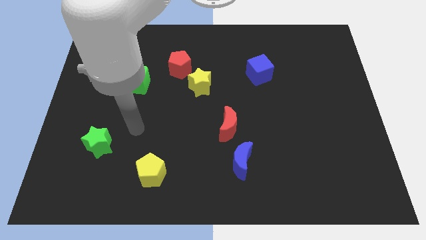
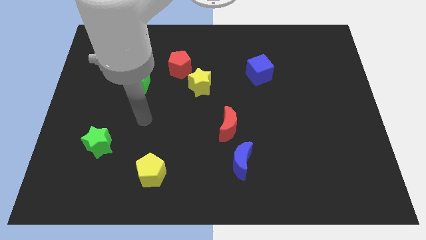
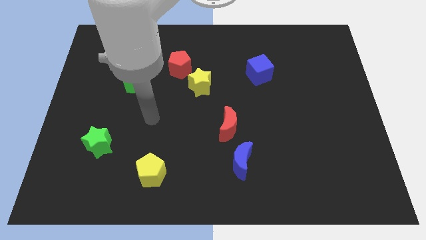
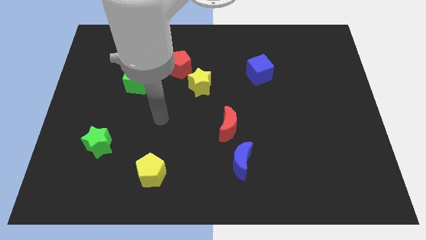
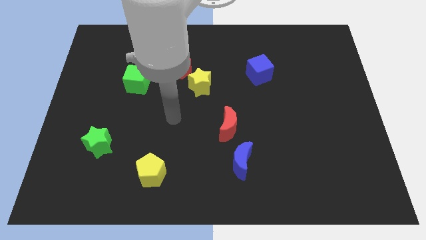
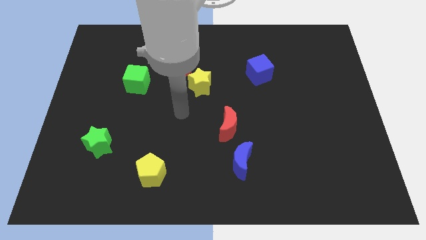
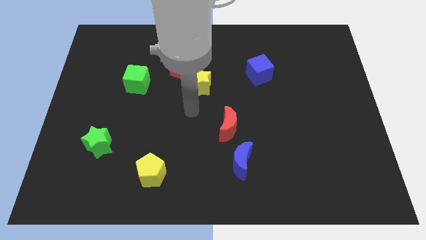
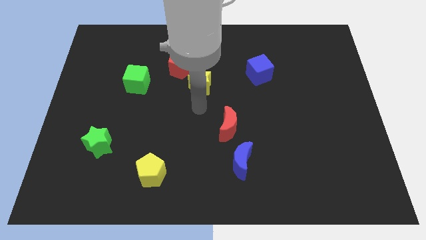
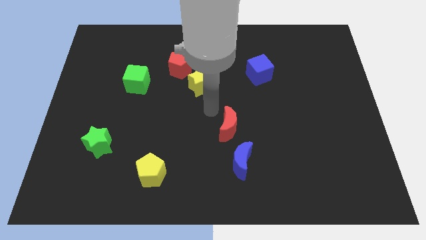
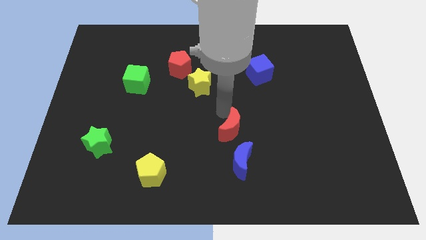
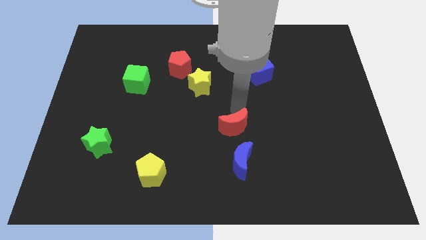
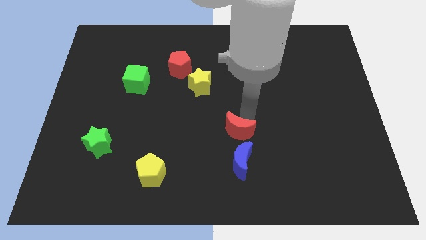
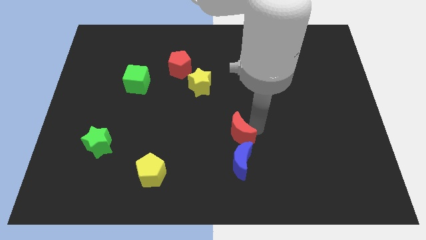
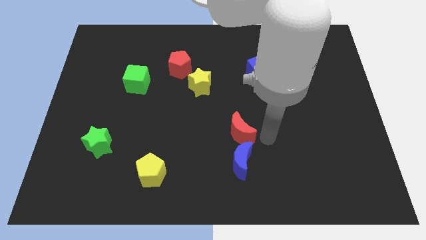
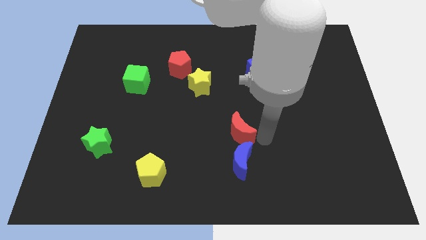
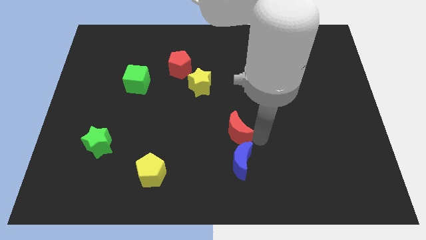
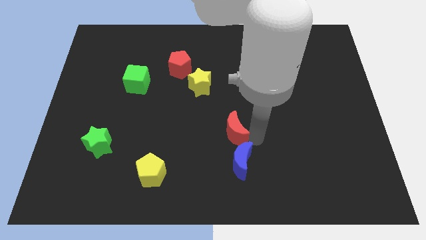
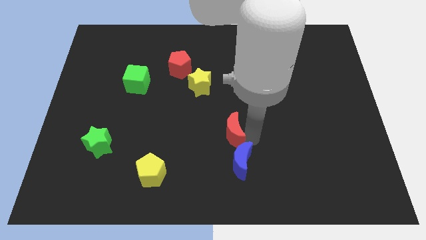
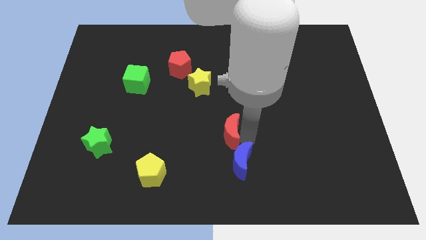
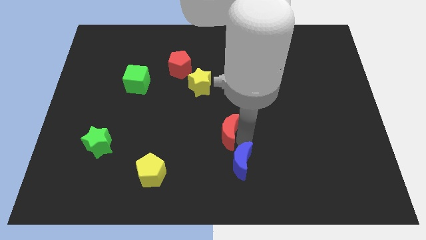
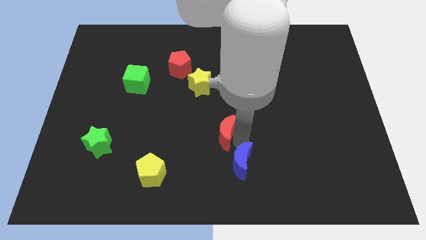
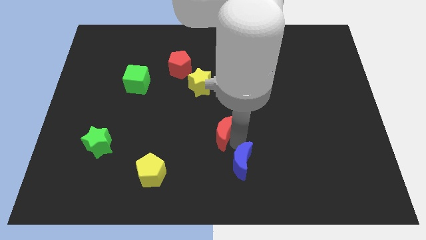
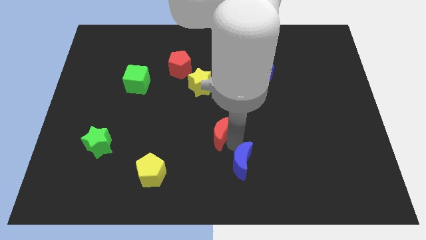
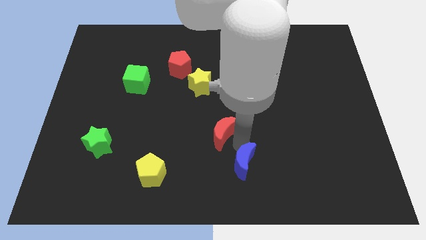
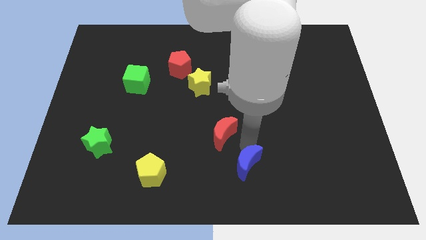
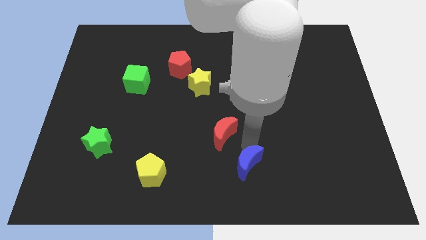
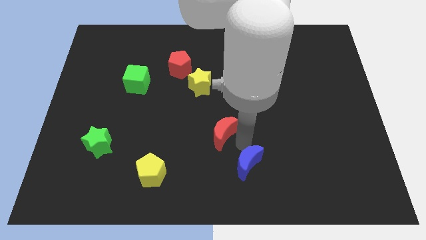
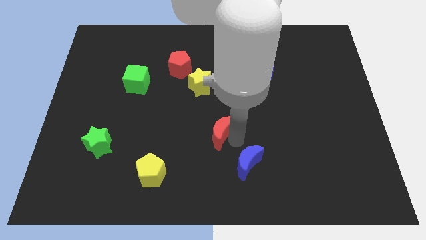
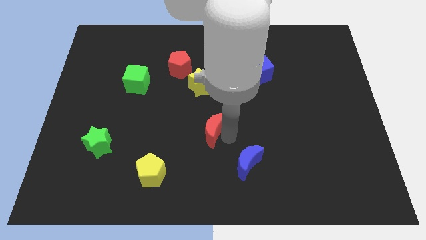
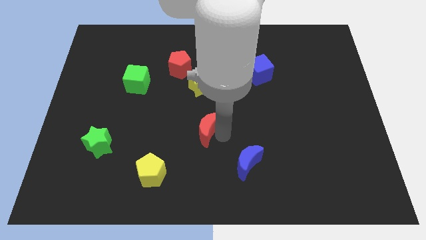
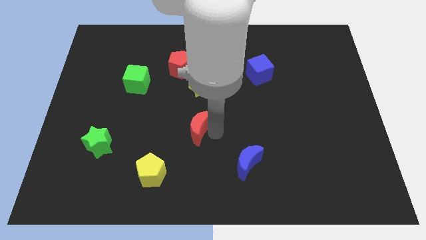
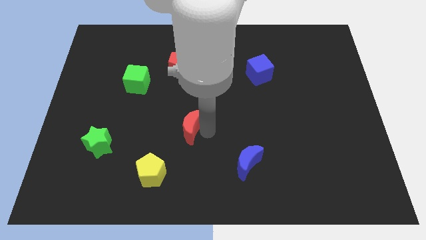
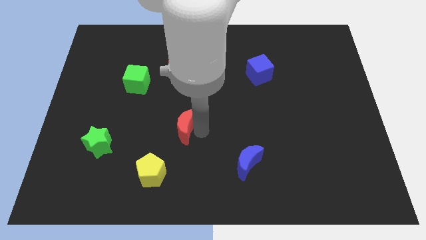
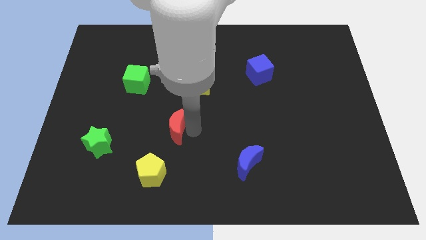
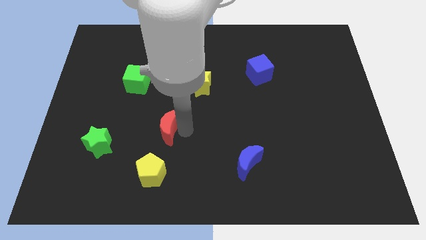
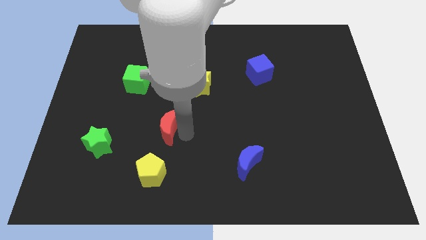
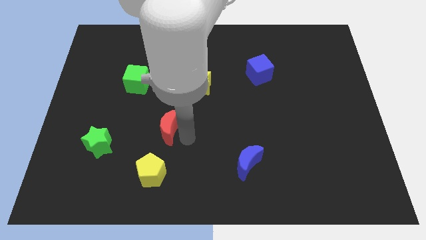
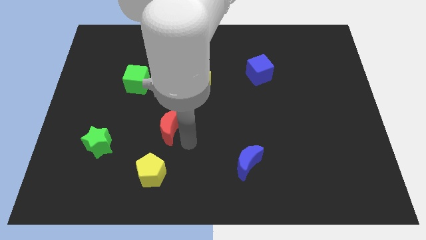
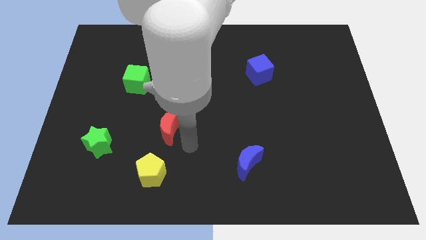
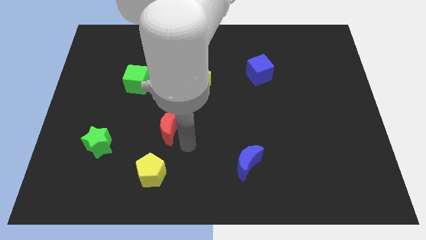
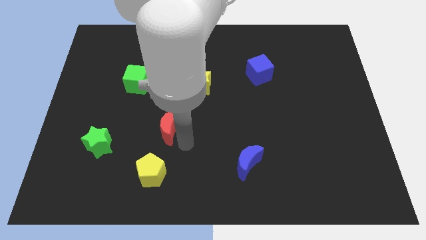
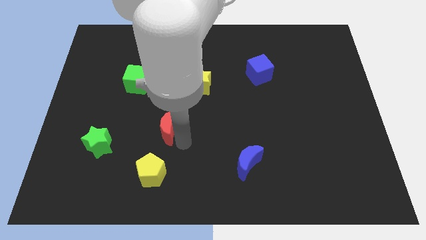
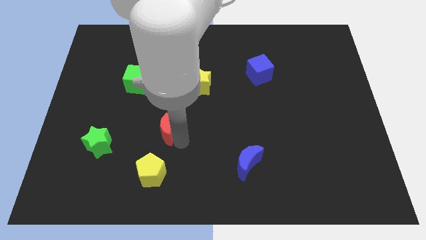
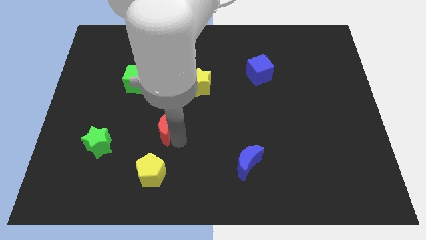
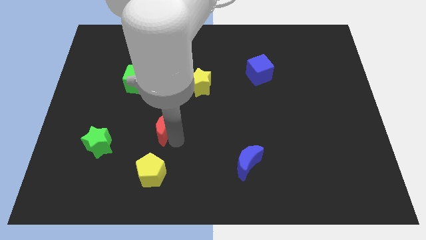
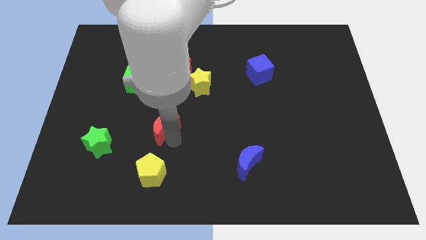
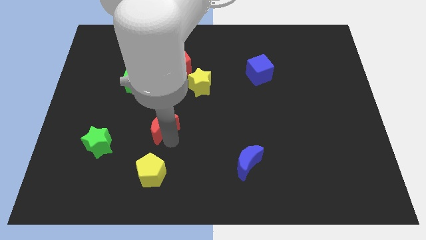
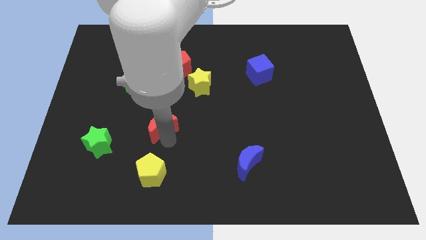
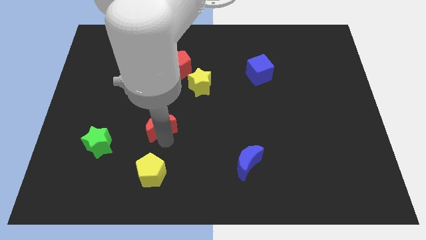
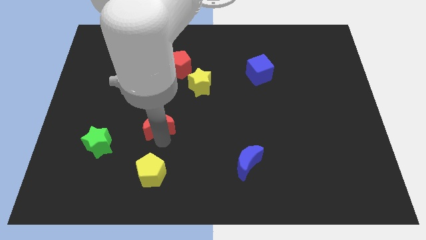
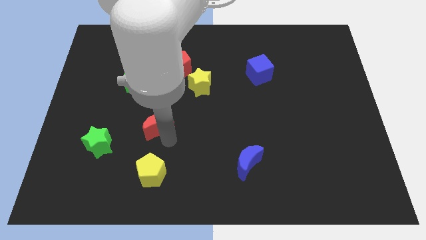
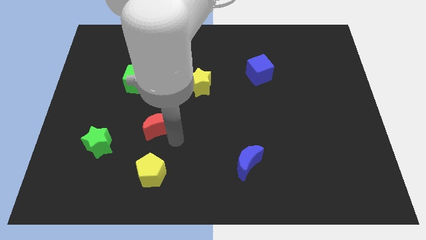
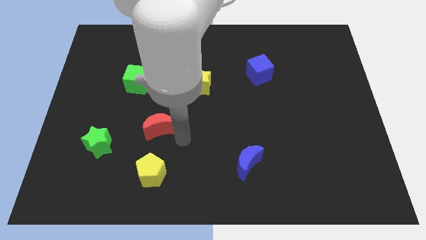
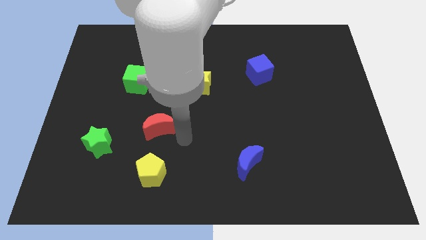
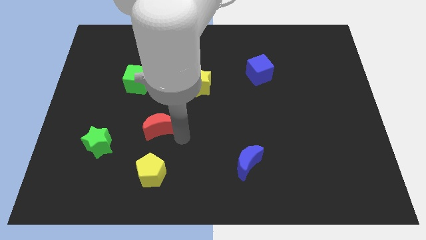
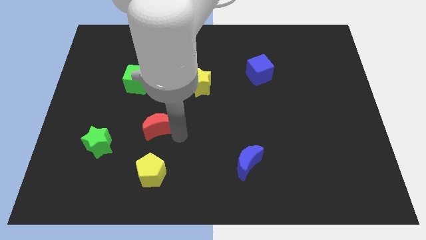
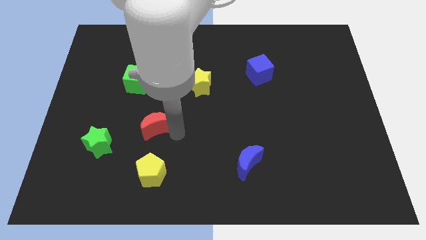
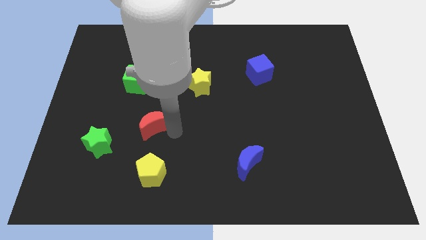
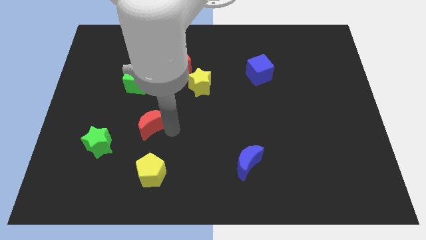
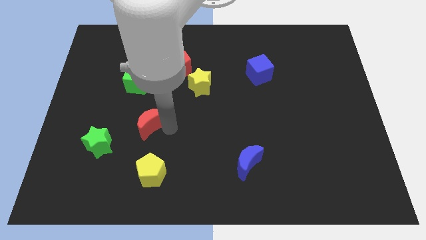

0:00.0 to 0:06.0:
push the red moon below the green cube

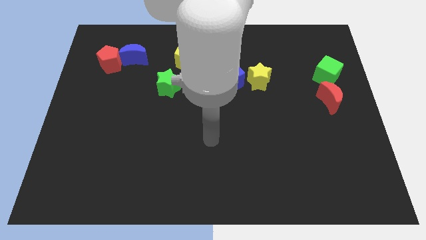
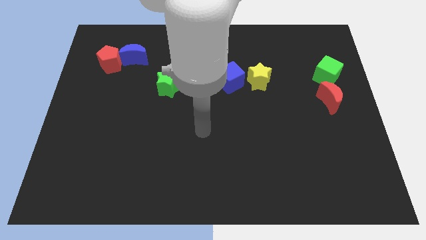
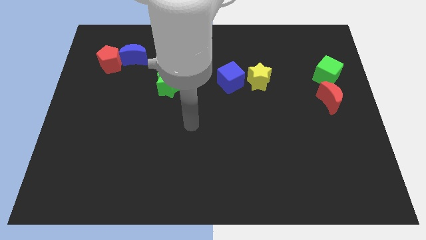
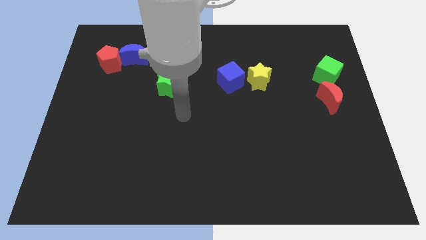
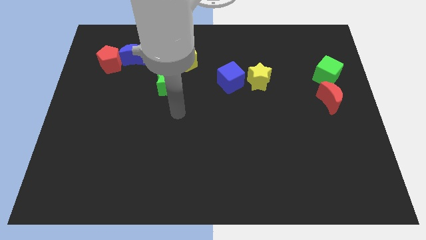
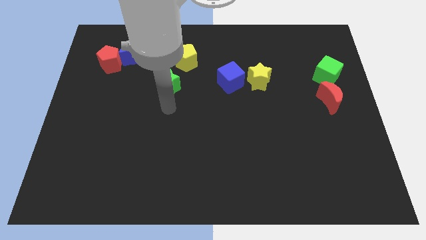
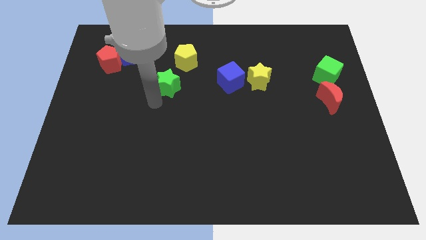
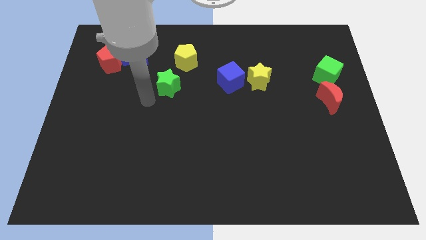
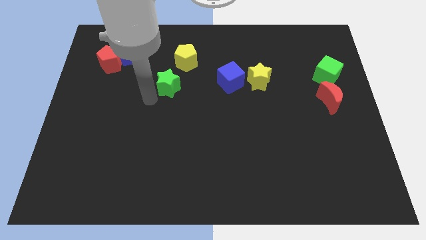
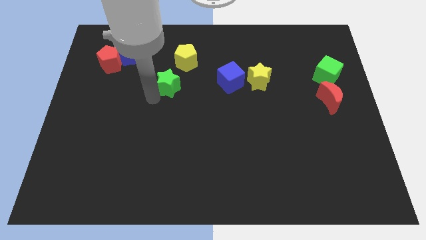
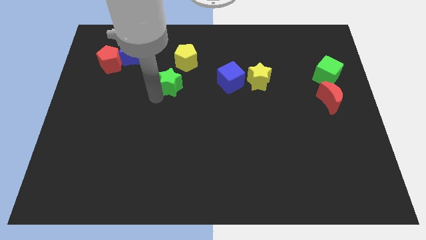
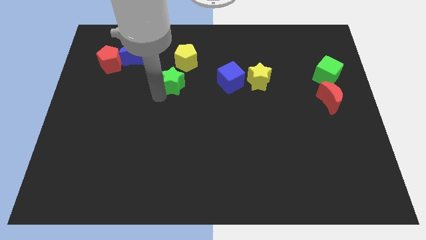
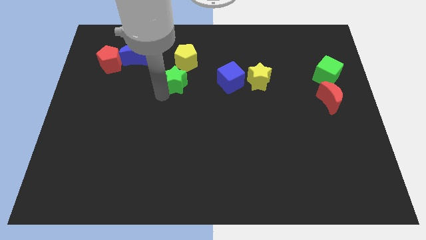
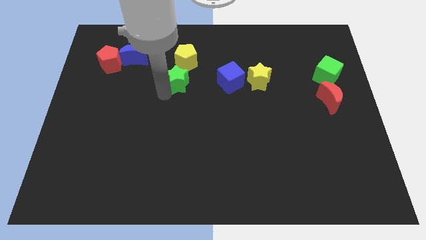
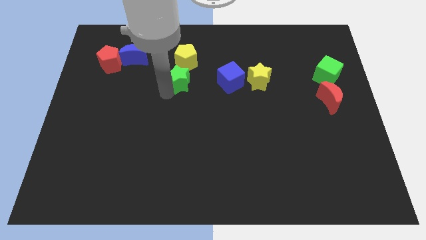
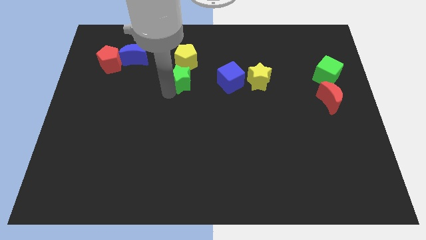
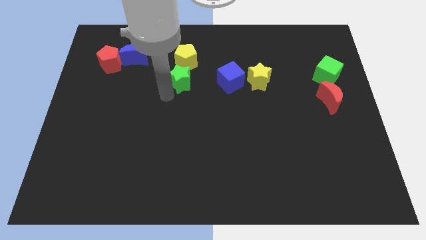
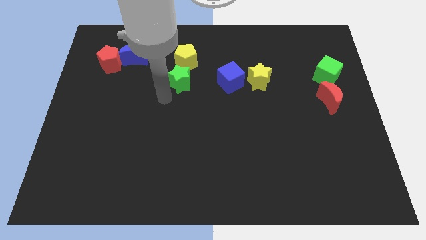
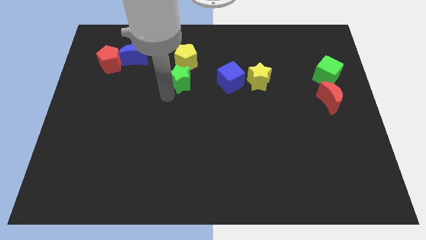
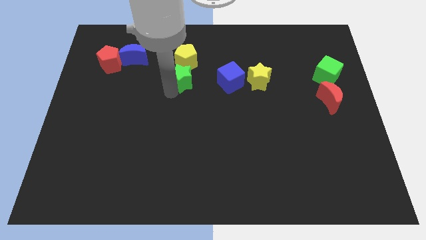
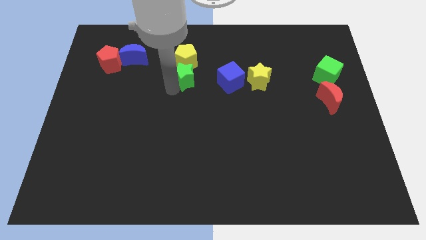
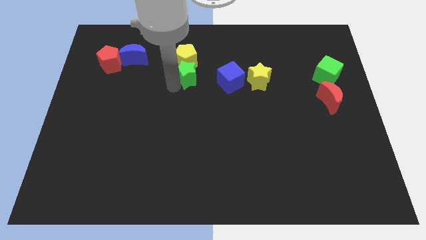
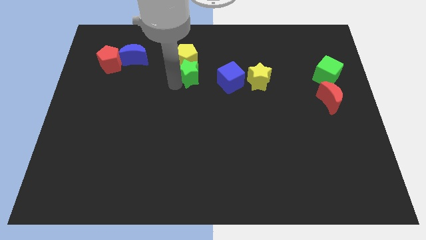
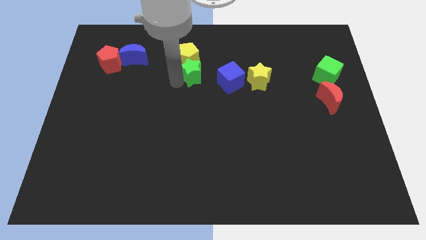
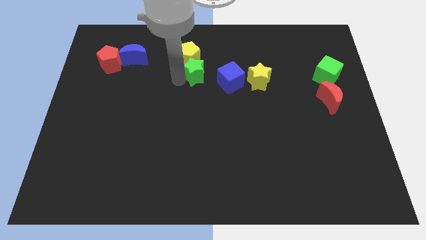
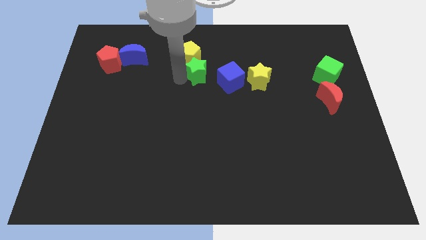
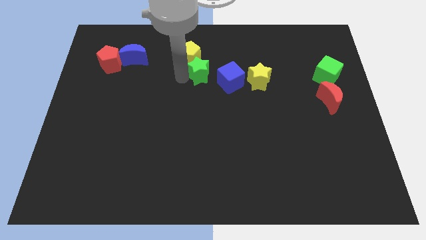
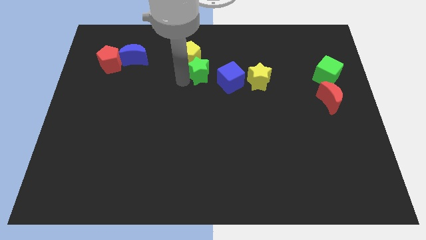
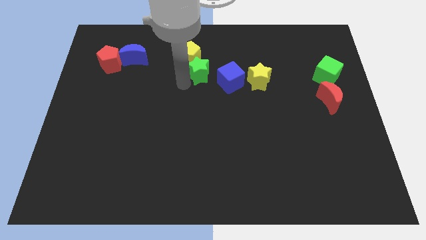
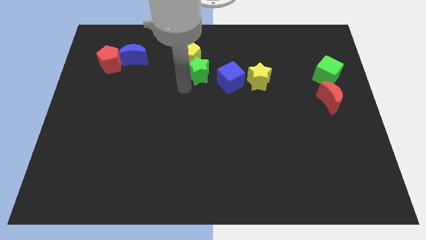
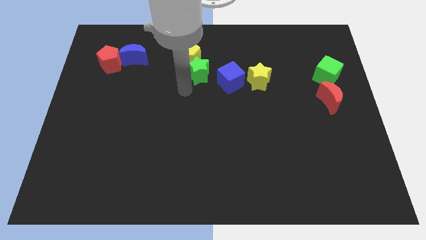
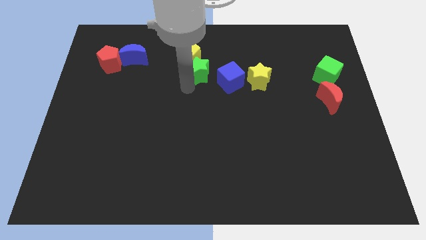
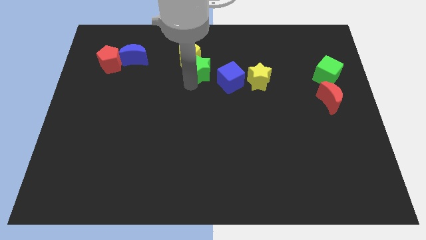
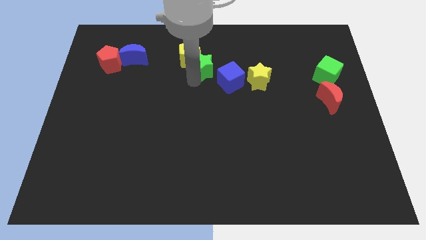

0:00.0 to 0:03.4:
put the green star right of the yellow pentagon
